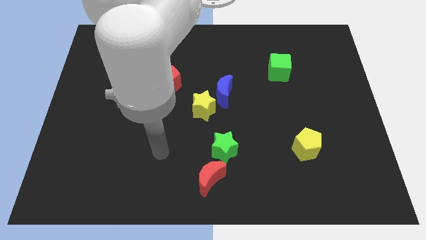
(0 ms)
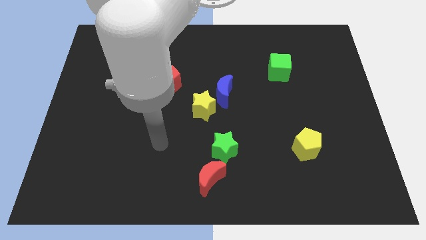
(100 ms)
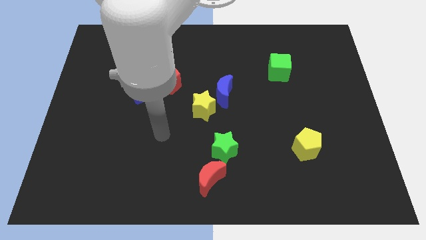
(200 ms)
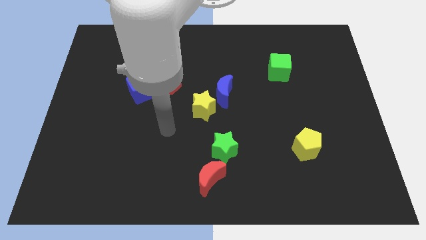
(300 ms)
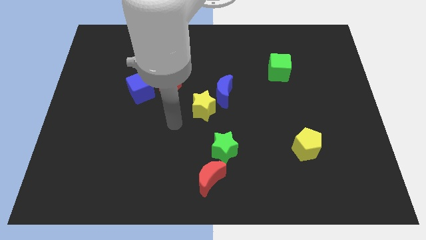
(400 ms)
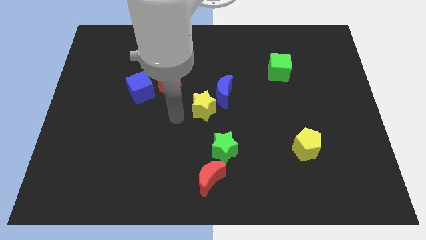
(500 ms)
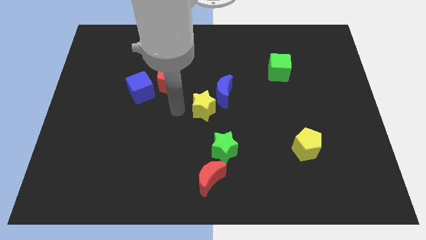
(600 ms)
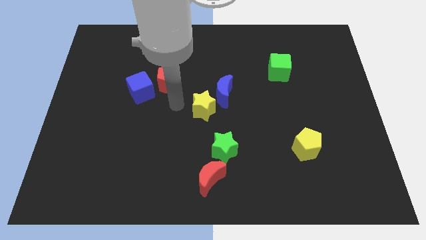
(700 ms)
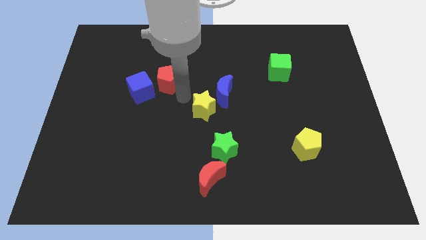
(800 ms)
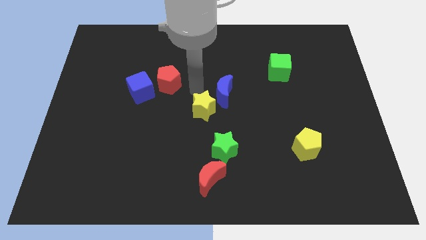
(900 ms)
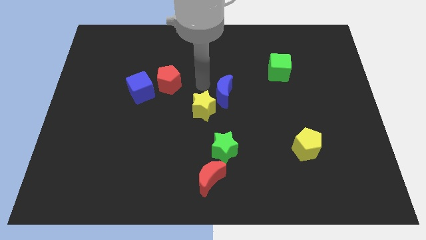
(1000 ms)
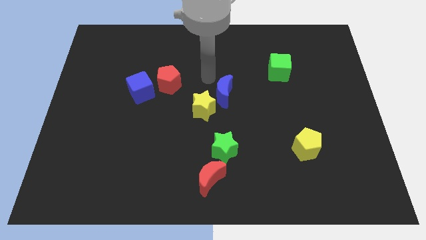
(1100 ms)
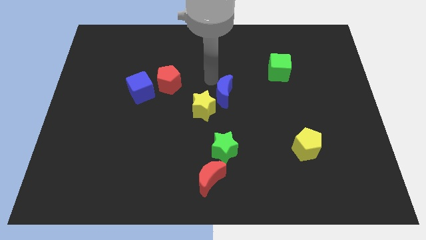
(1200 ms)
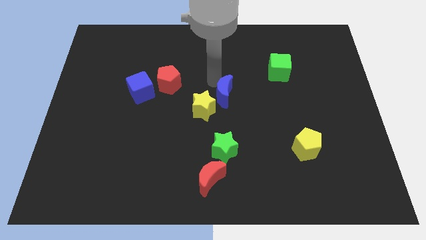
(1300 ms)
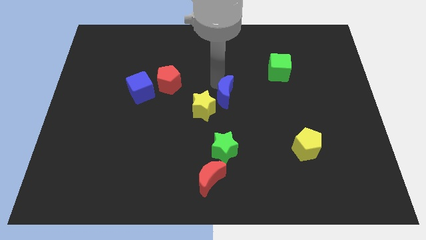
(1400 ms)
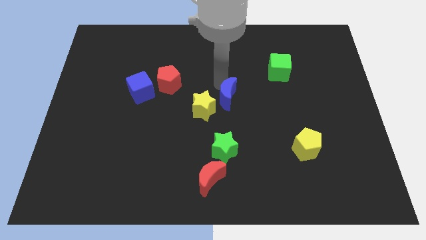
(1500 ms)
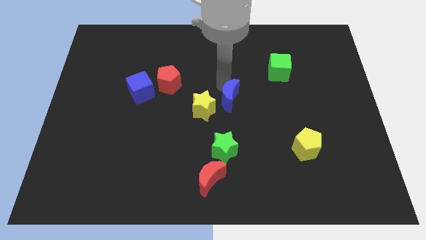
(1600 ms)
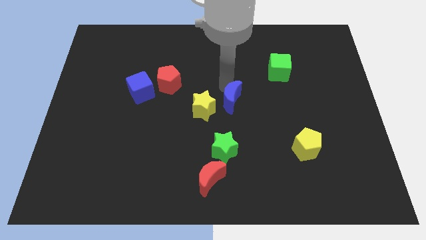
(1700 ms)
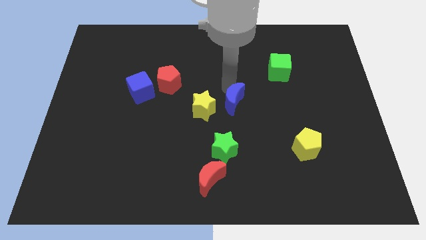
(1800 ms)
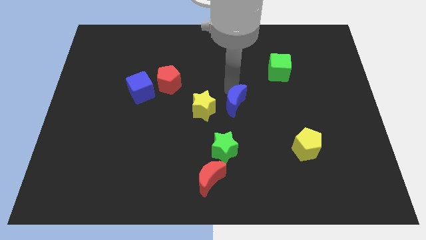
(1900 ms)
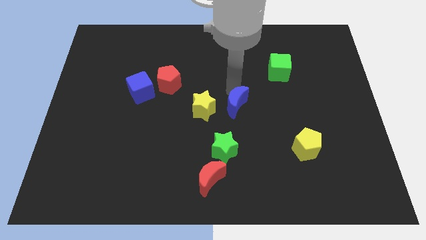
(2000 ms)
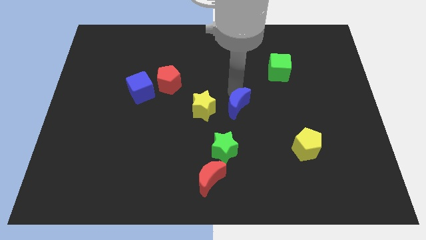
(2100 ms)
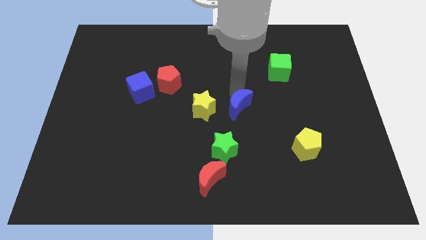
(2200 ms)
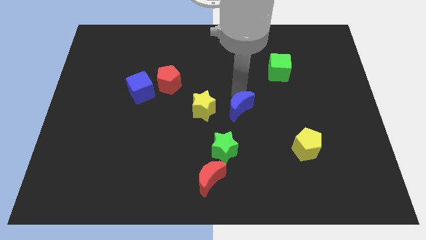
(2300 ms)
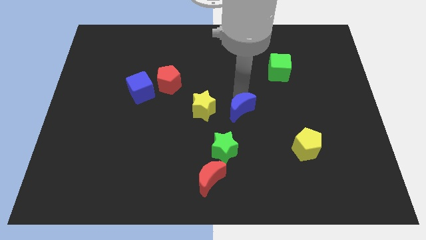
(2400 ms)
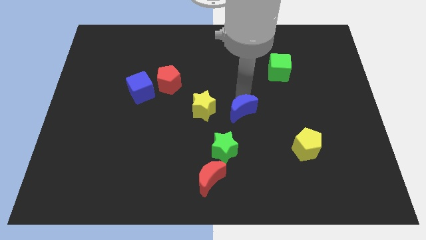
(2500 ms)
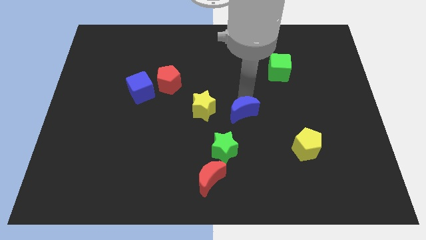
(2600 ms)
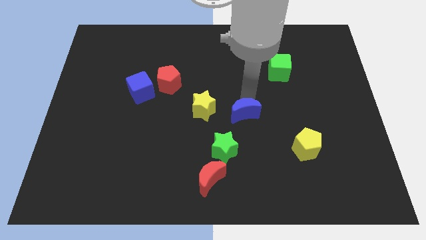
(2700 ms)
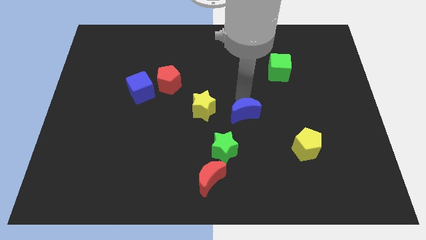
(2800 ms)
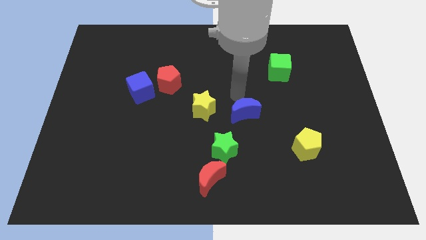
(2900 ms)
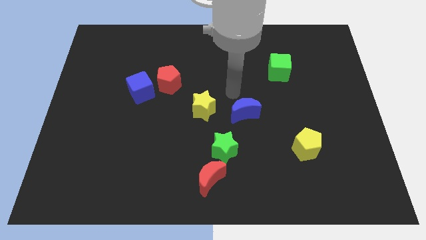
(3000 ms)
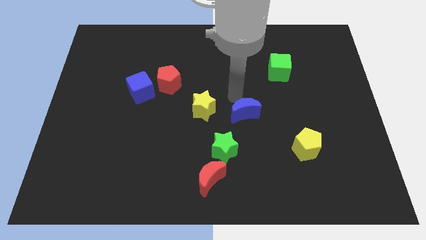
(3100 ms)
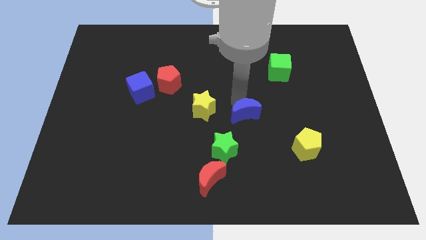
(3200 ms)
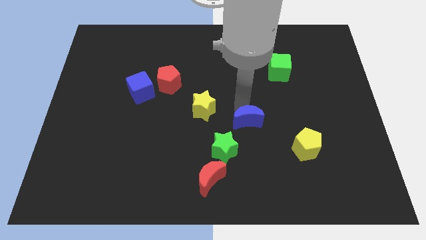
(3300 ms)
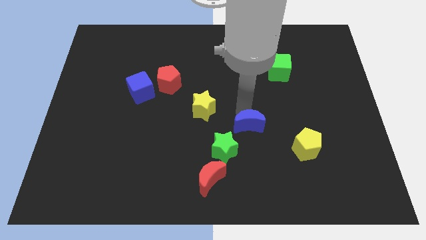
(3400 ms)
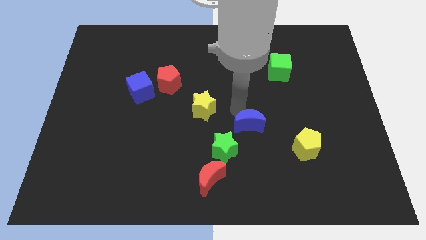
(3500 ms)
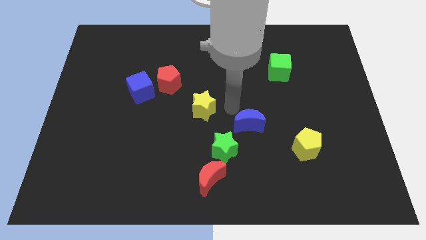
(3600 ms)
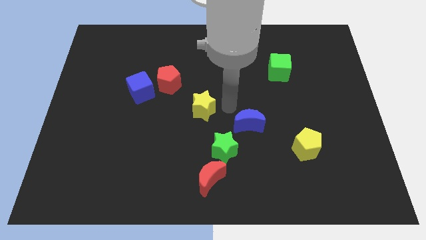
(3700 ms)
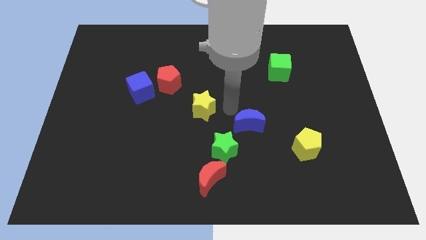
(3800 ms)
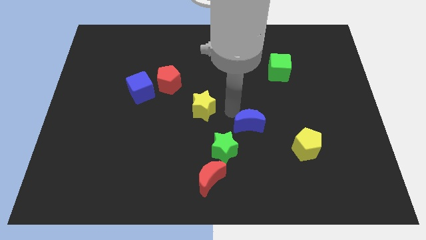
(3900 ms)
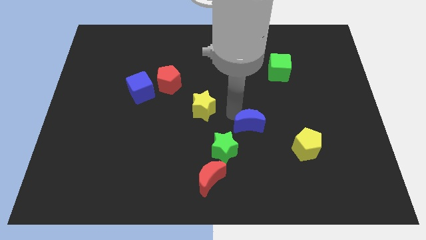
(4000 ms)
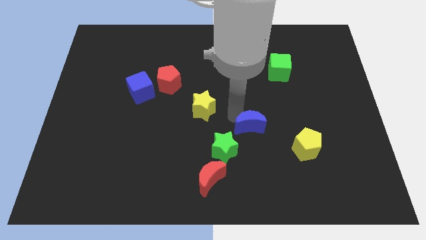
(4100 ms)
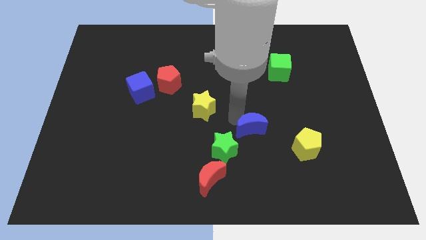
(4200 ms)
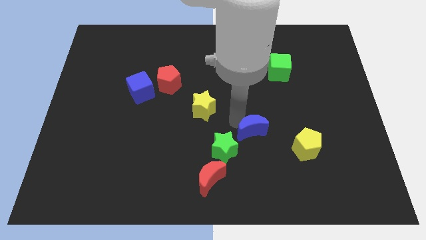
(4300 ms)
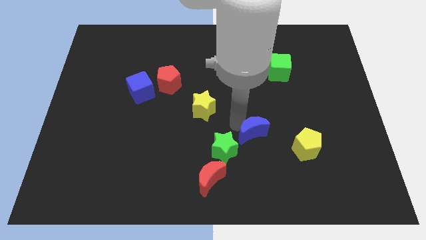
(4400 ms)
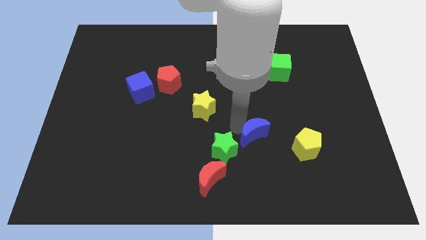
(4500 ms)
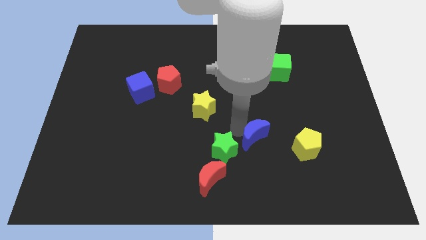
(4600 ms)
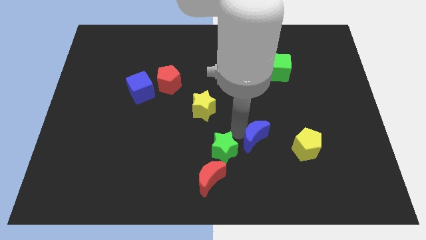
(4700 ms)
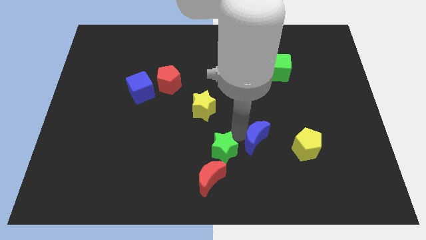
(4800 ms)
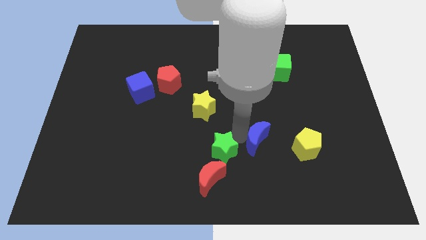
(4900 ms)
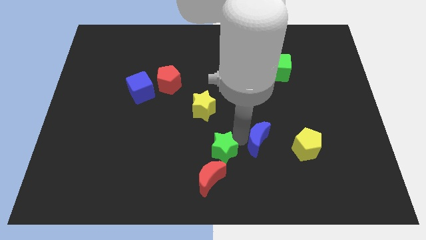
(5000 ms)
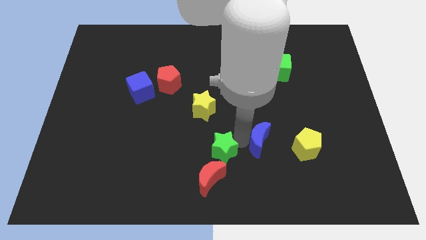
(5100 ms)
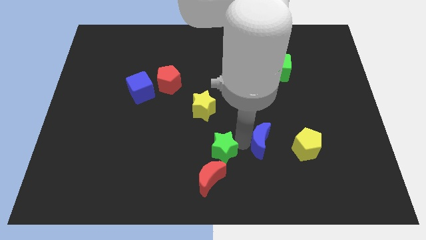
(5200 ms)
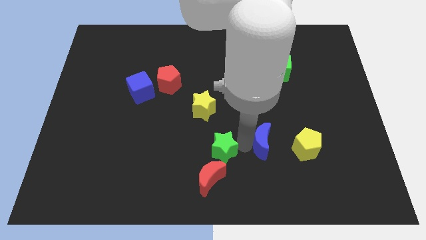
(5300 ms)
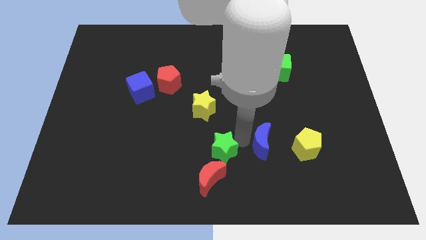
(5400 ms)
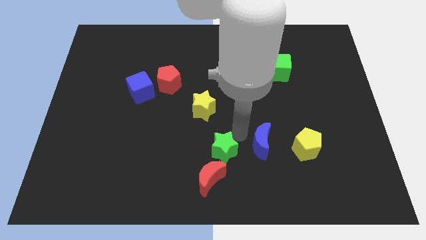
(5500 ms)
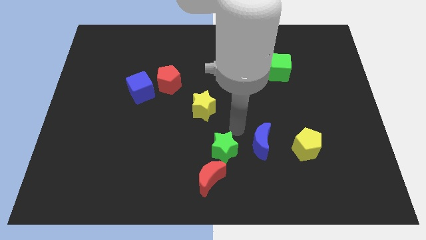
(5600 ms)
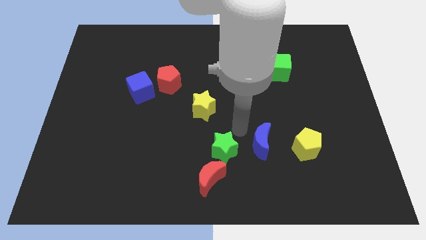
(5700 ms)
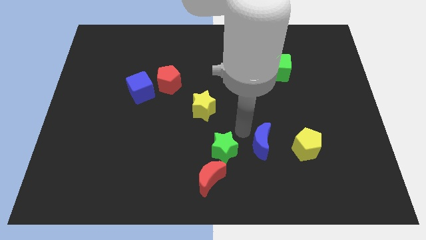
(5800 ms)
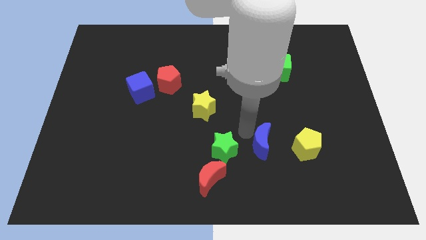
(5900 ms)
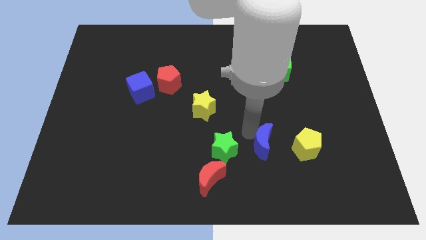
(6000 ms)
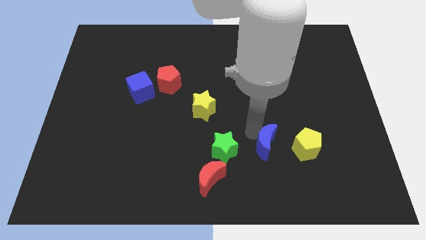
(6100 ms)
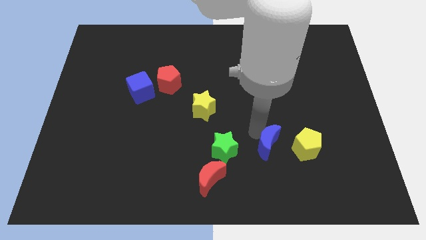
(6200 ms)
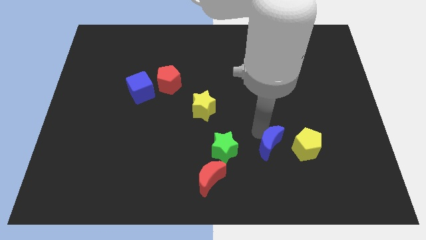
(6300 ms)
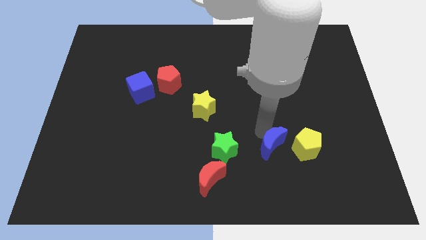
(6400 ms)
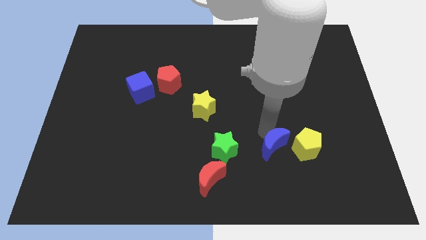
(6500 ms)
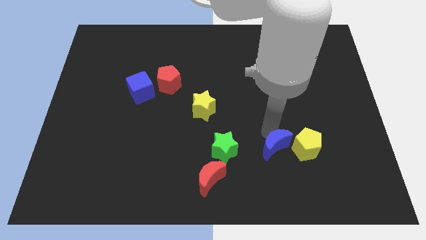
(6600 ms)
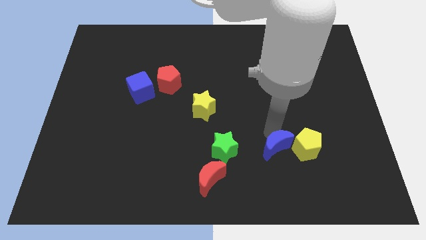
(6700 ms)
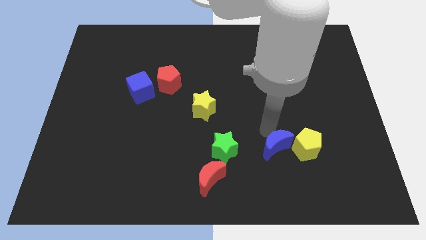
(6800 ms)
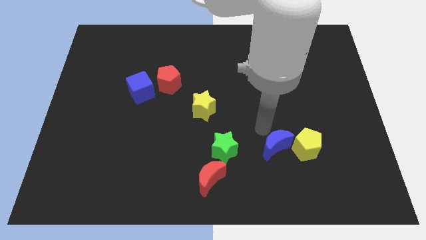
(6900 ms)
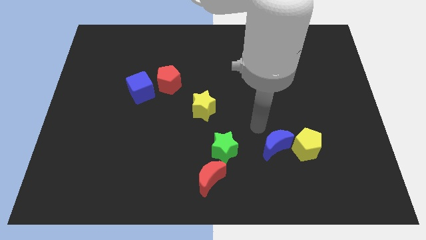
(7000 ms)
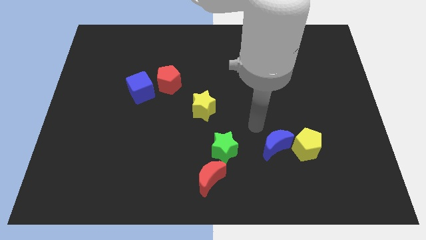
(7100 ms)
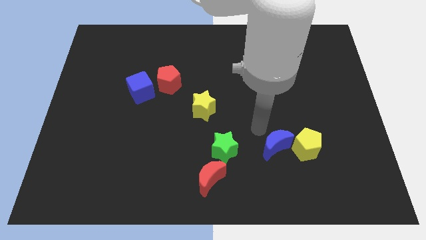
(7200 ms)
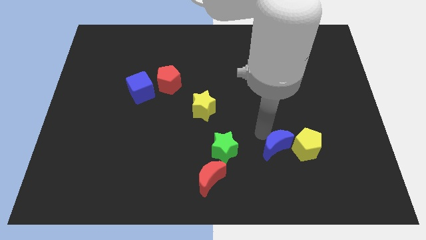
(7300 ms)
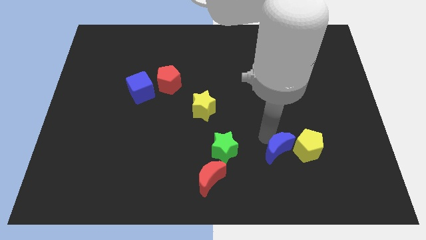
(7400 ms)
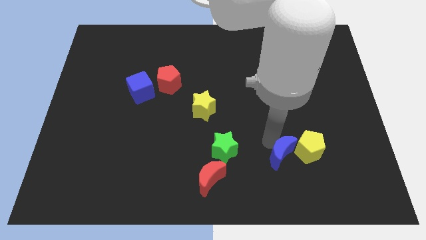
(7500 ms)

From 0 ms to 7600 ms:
slide the blue moon downwards and then to the right

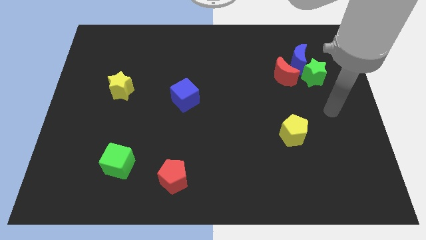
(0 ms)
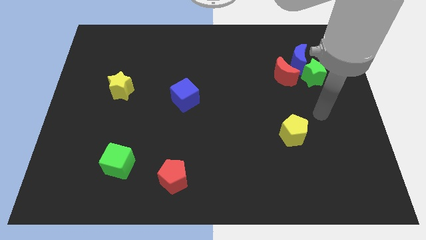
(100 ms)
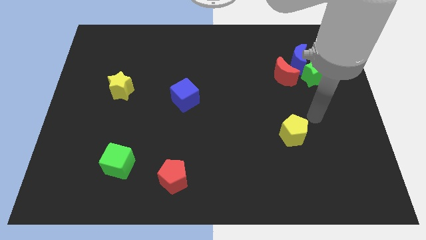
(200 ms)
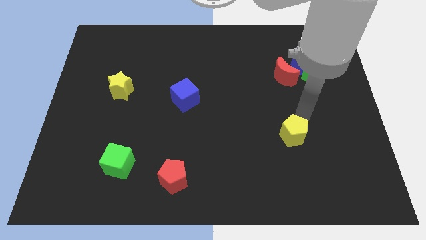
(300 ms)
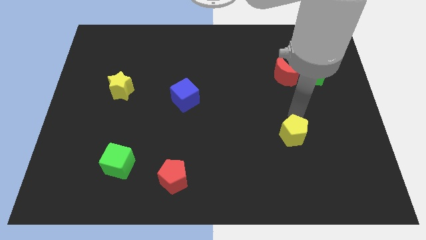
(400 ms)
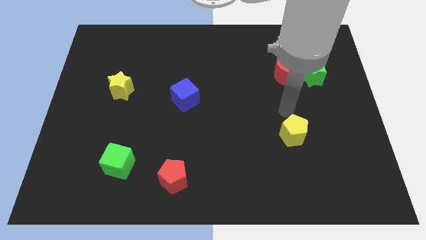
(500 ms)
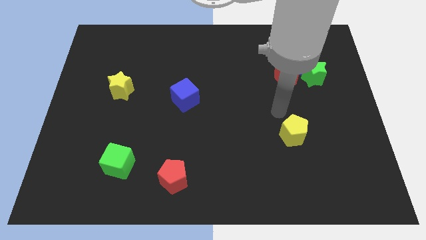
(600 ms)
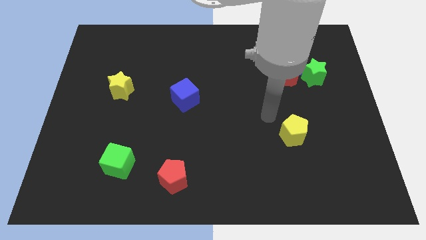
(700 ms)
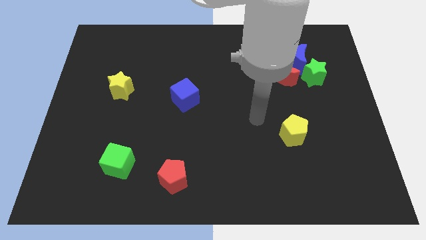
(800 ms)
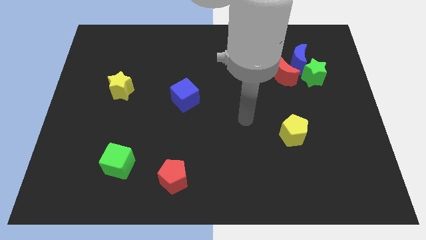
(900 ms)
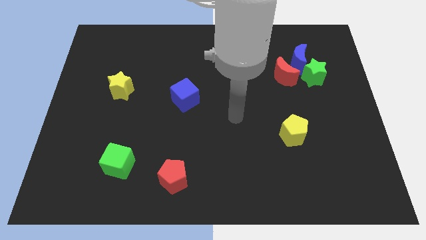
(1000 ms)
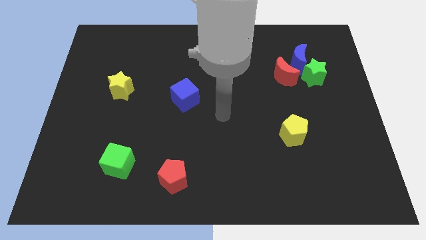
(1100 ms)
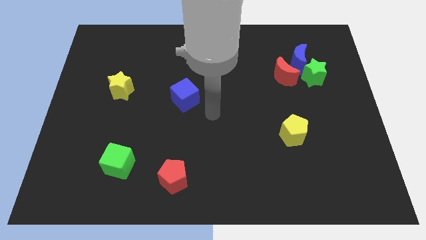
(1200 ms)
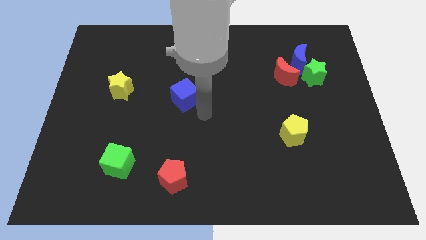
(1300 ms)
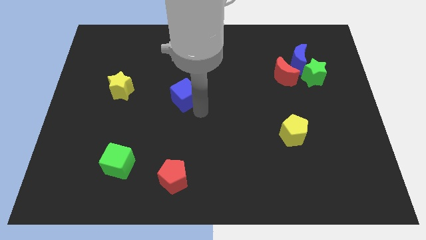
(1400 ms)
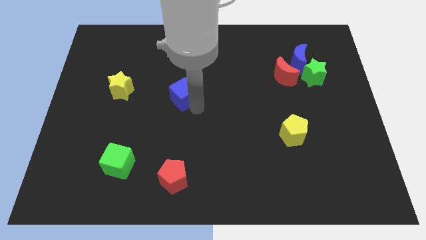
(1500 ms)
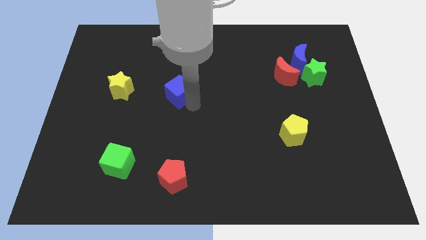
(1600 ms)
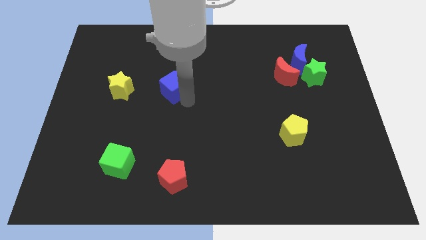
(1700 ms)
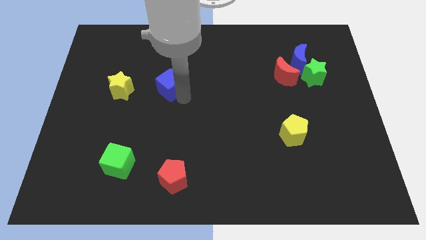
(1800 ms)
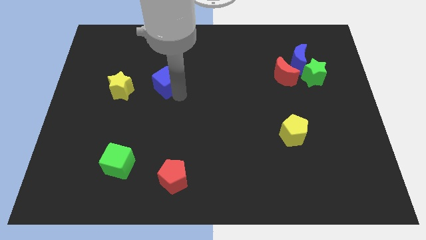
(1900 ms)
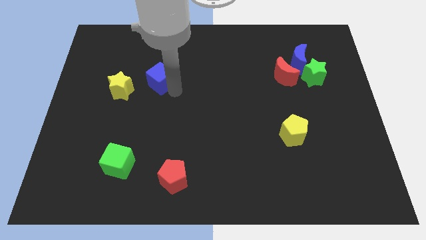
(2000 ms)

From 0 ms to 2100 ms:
move the blue cube a little upwards and then to the left
